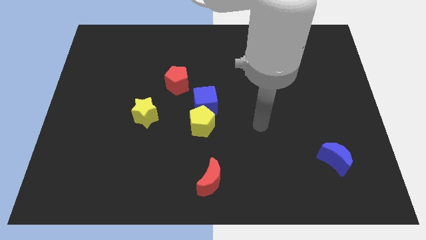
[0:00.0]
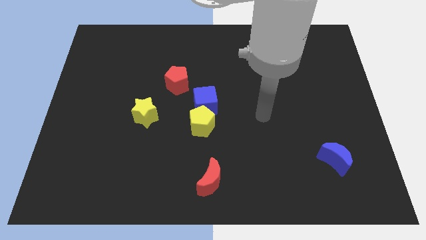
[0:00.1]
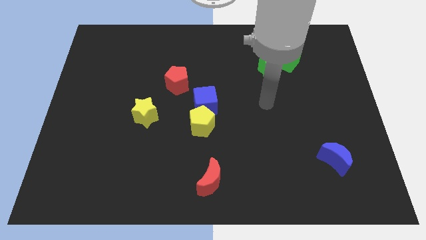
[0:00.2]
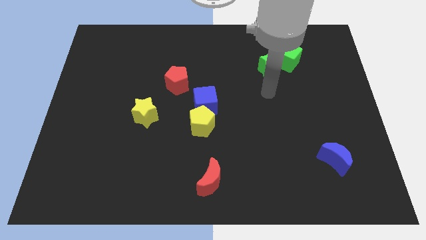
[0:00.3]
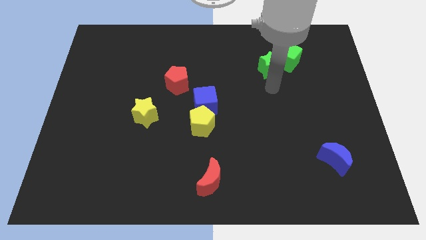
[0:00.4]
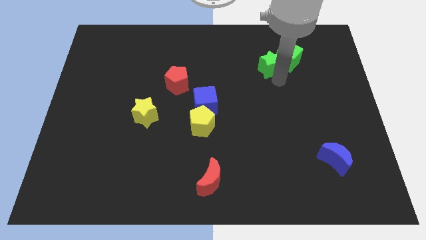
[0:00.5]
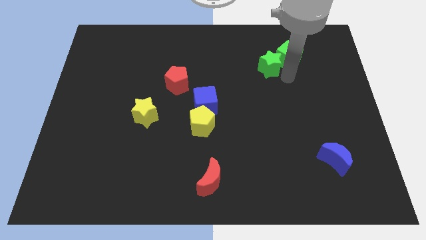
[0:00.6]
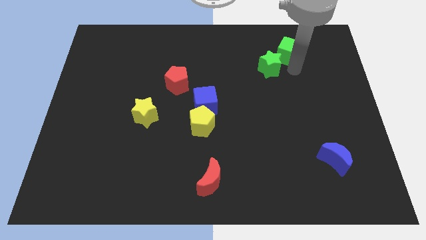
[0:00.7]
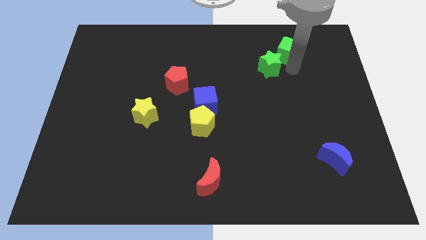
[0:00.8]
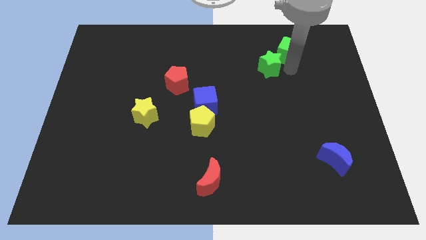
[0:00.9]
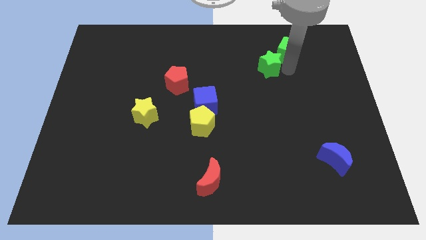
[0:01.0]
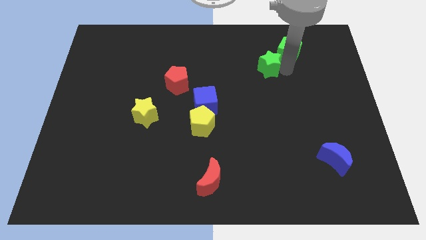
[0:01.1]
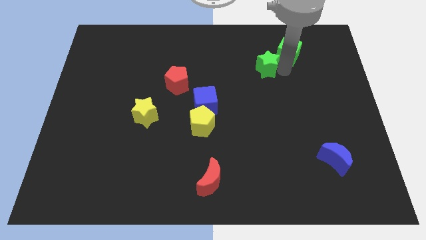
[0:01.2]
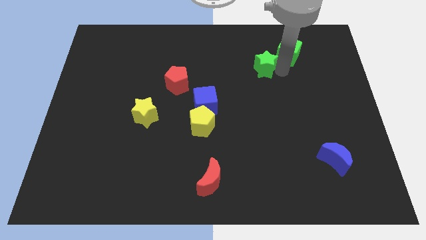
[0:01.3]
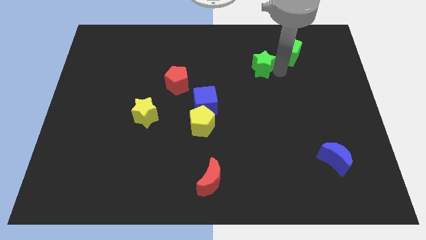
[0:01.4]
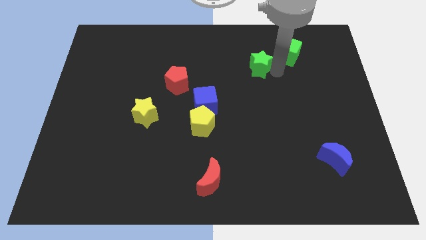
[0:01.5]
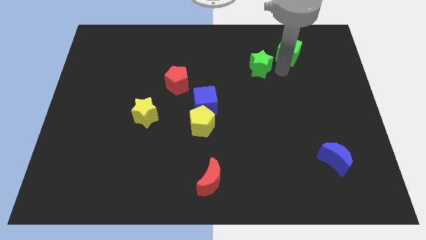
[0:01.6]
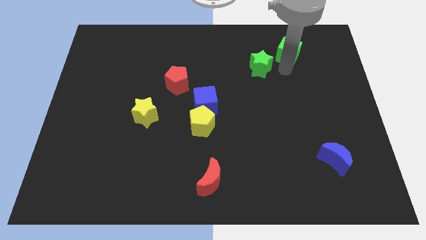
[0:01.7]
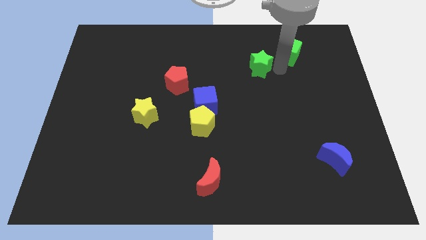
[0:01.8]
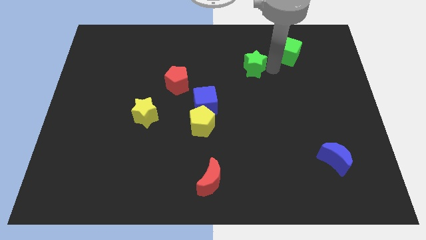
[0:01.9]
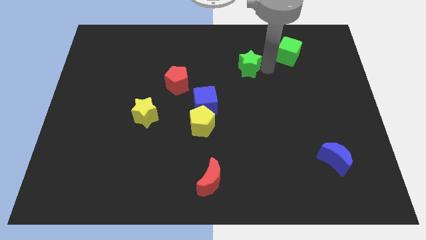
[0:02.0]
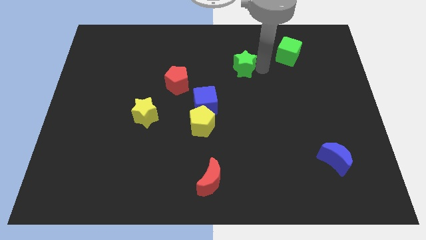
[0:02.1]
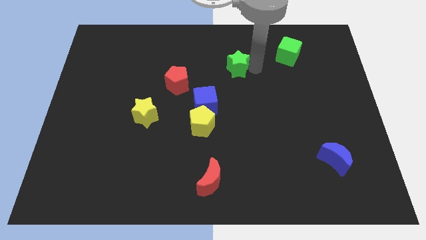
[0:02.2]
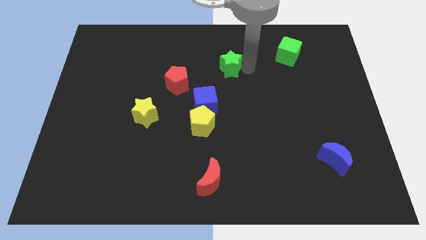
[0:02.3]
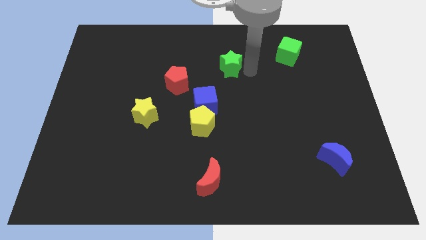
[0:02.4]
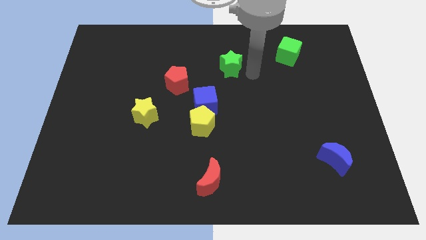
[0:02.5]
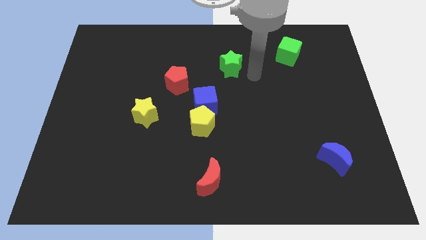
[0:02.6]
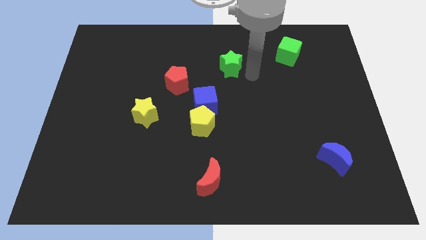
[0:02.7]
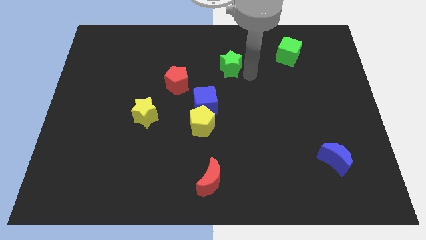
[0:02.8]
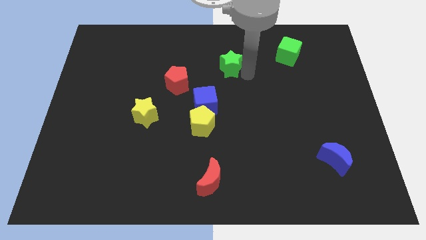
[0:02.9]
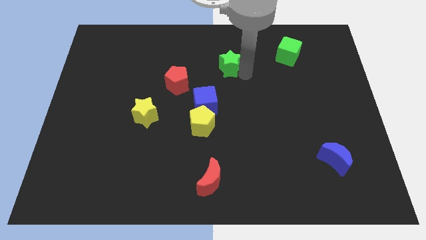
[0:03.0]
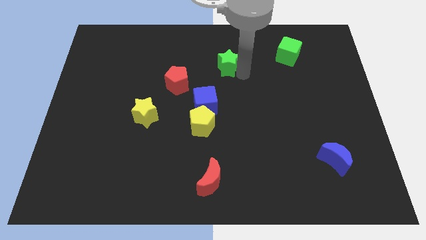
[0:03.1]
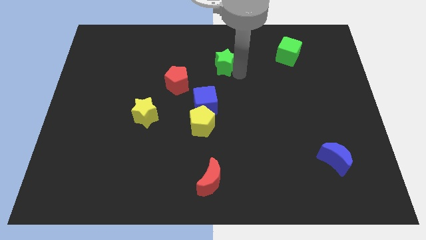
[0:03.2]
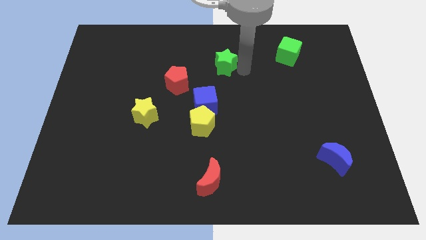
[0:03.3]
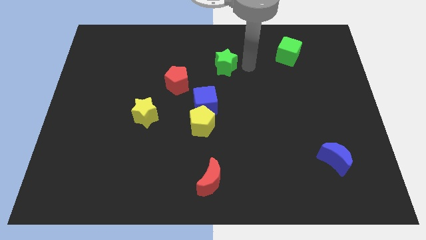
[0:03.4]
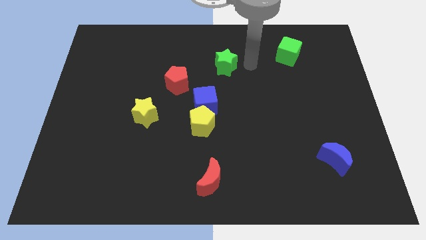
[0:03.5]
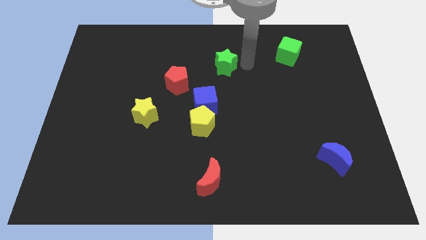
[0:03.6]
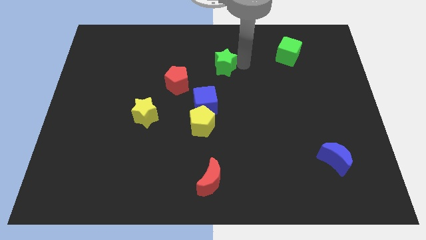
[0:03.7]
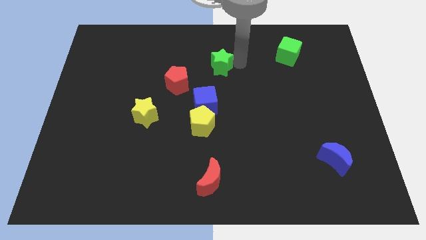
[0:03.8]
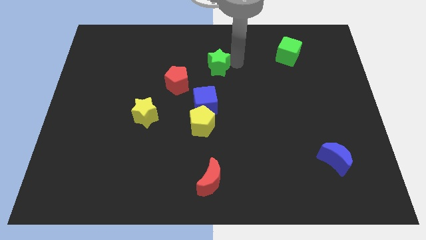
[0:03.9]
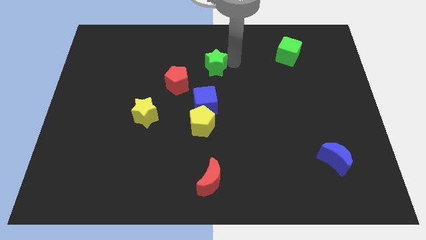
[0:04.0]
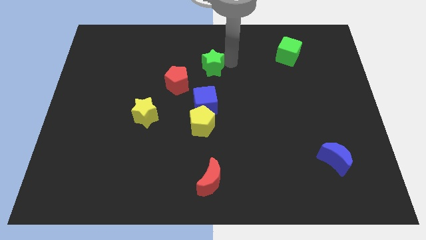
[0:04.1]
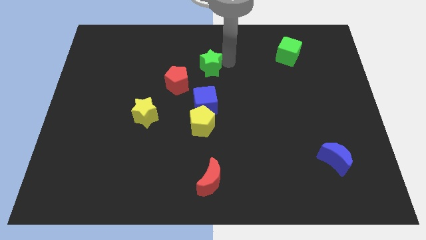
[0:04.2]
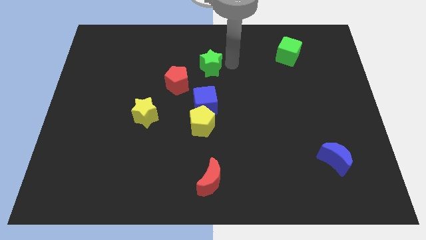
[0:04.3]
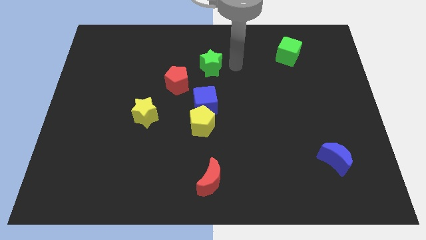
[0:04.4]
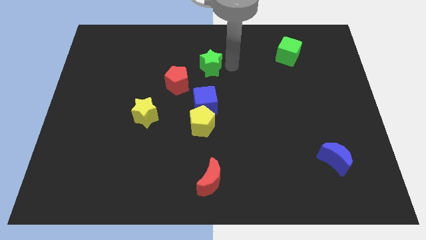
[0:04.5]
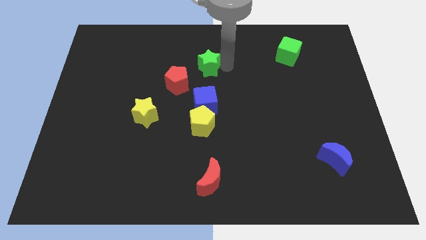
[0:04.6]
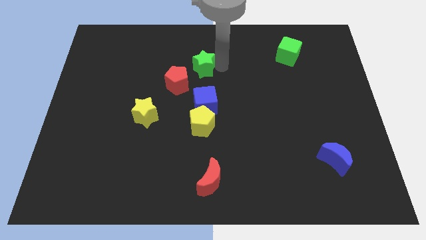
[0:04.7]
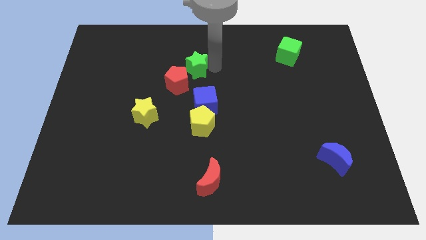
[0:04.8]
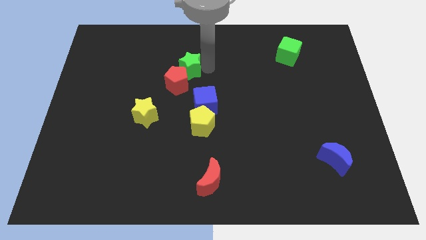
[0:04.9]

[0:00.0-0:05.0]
push the green star left

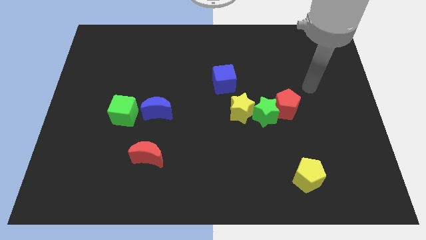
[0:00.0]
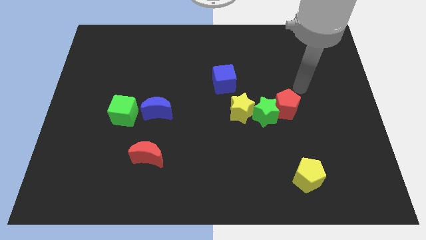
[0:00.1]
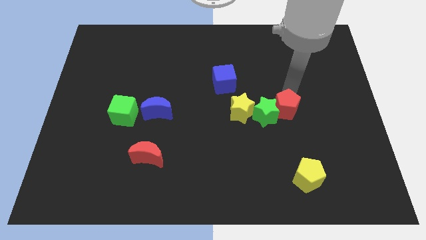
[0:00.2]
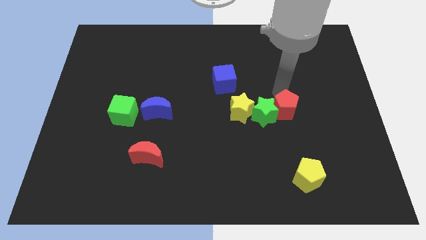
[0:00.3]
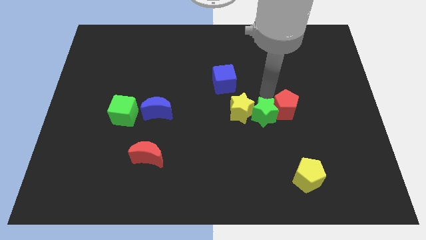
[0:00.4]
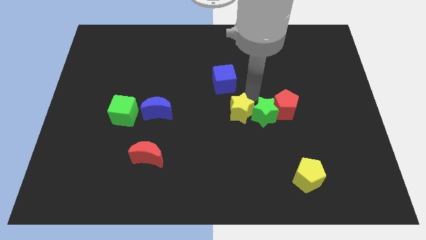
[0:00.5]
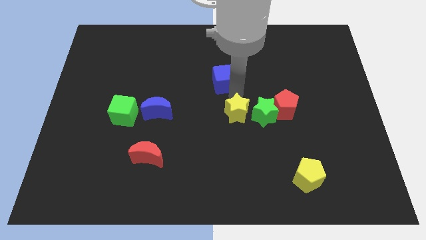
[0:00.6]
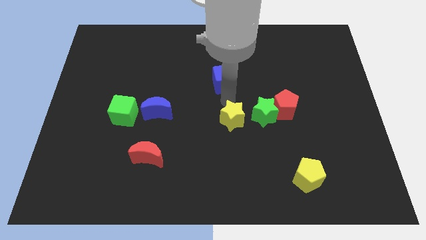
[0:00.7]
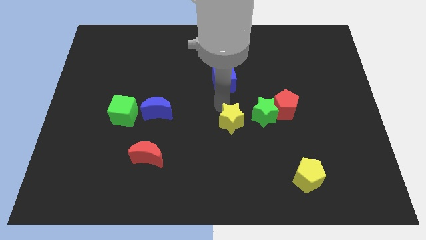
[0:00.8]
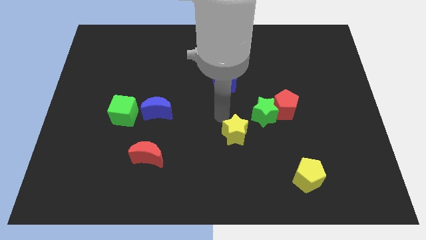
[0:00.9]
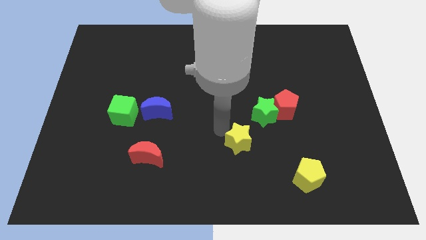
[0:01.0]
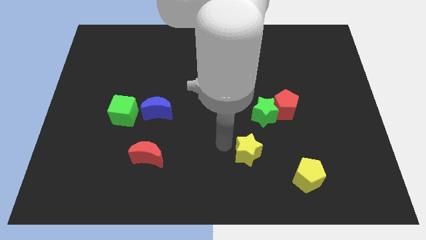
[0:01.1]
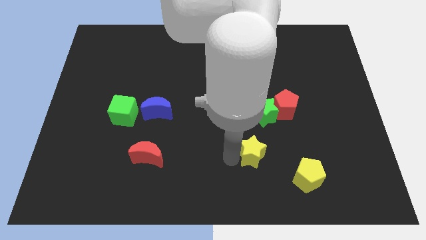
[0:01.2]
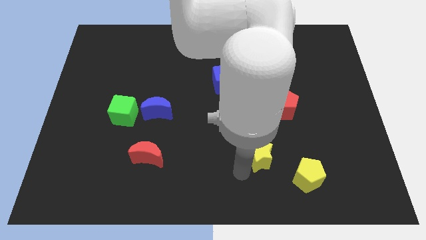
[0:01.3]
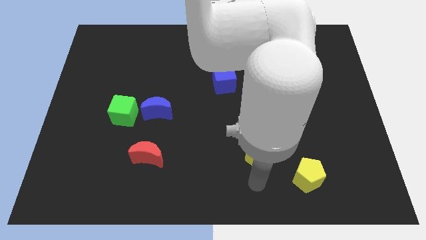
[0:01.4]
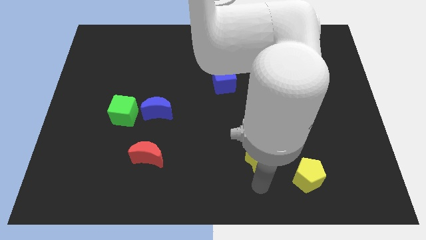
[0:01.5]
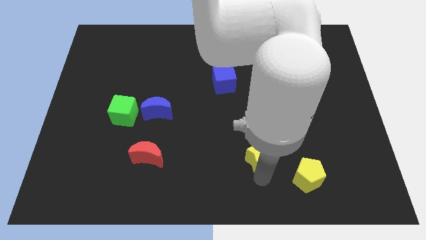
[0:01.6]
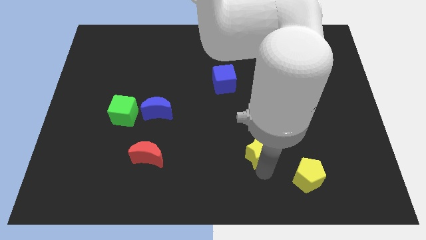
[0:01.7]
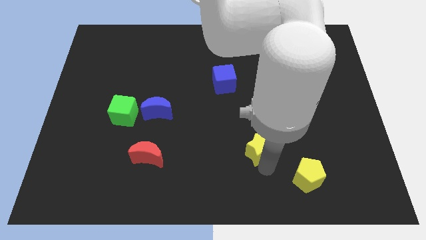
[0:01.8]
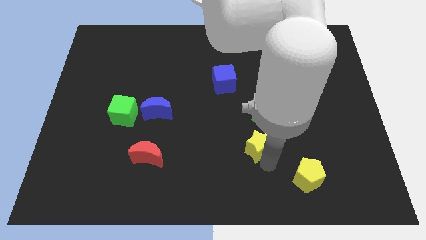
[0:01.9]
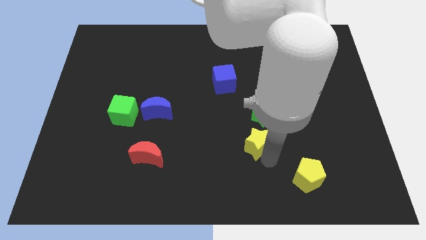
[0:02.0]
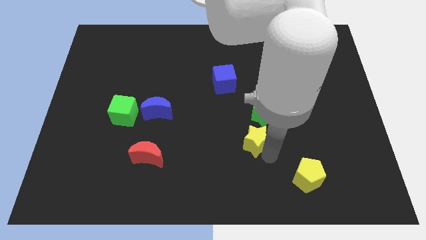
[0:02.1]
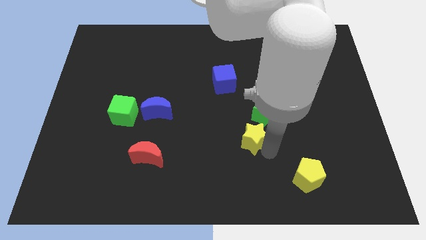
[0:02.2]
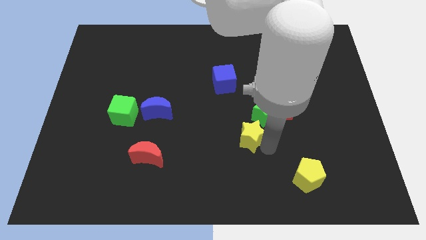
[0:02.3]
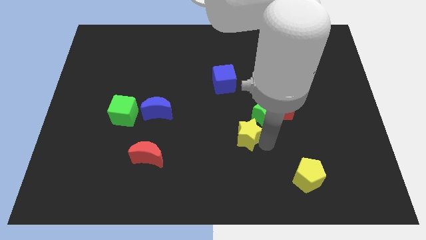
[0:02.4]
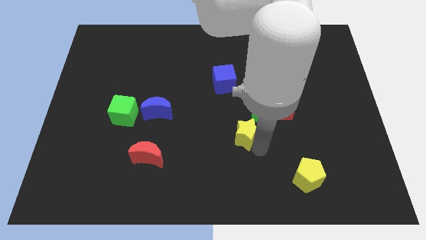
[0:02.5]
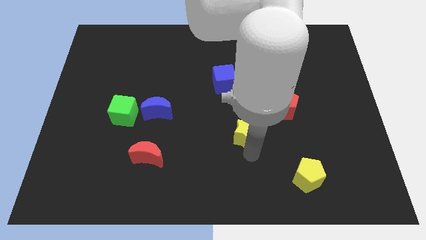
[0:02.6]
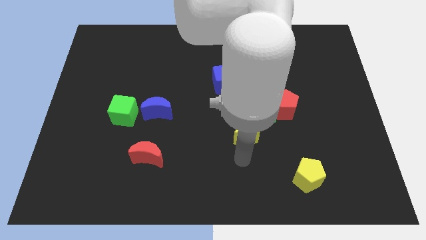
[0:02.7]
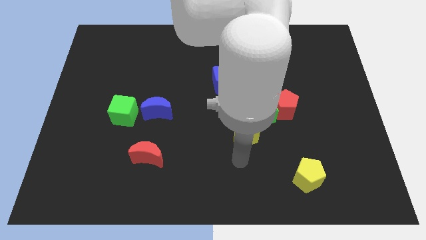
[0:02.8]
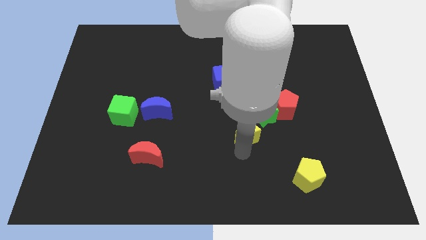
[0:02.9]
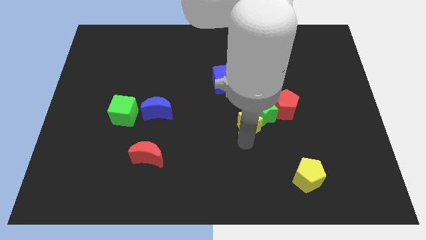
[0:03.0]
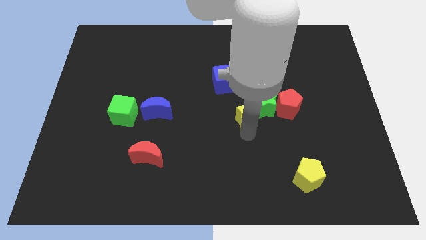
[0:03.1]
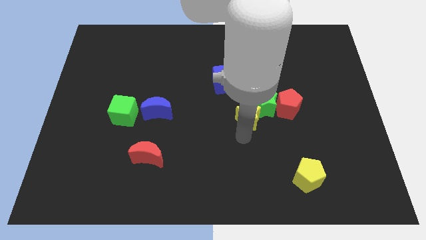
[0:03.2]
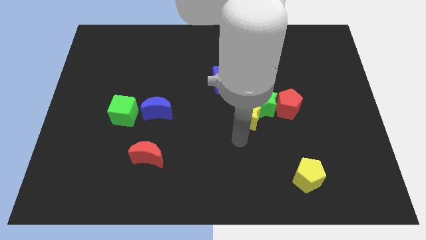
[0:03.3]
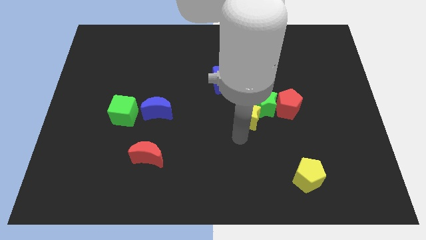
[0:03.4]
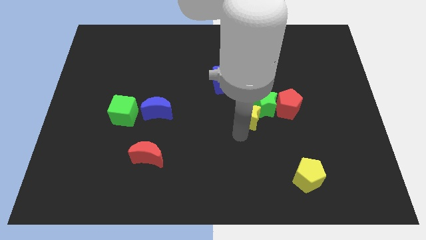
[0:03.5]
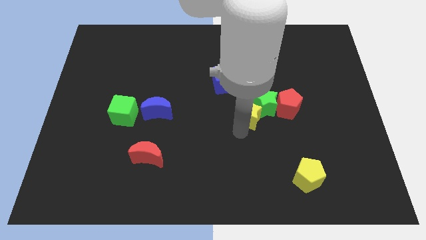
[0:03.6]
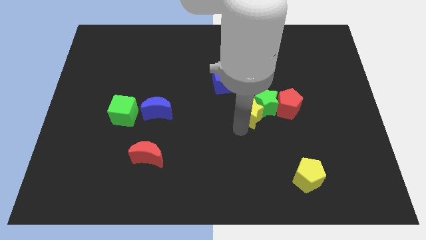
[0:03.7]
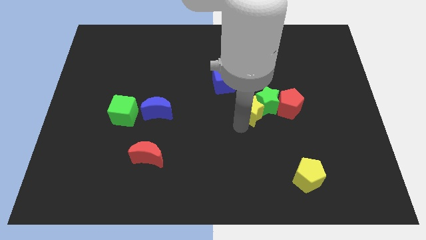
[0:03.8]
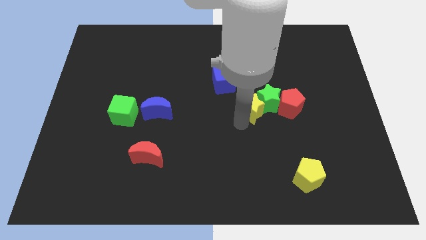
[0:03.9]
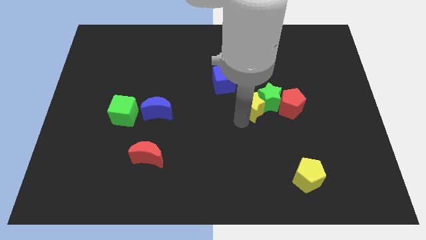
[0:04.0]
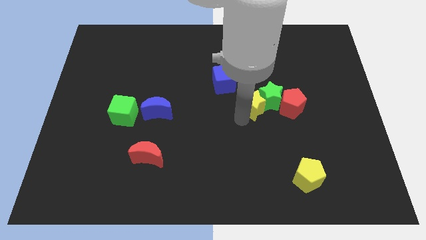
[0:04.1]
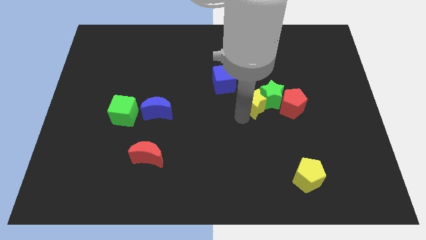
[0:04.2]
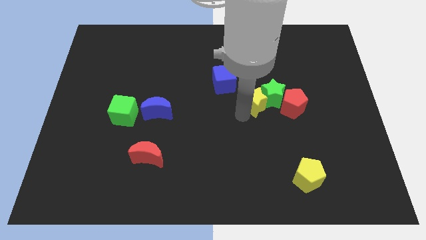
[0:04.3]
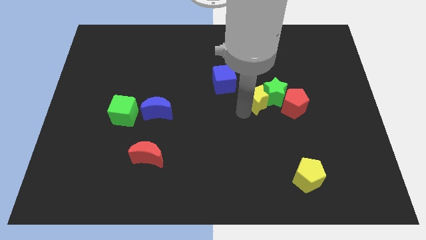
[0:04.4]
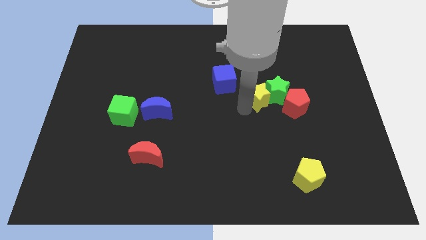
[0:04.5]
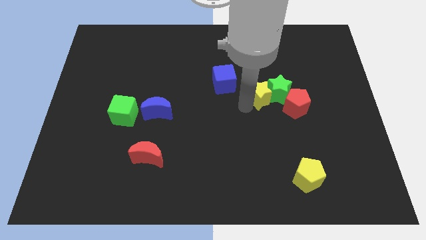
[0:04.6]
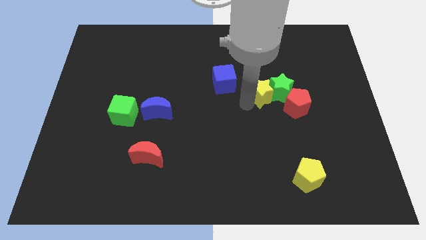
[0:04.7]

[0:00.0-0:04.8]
slide the yellow star diagonally upwards and to the right a little
